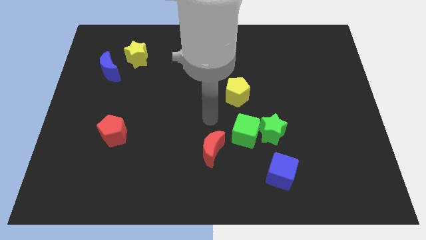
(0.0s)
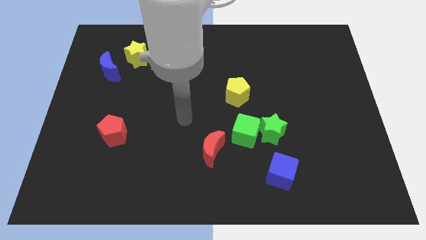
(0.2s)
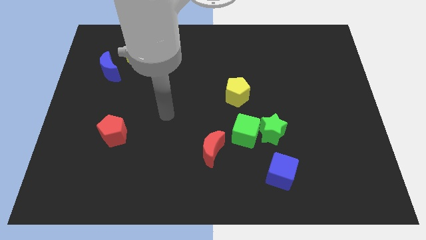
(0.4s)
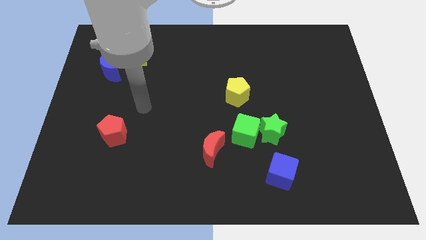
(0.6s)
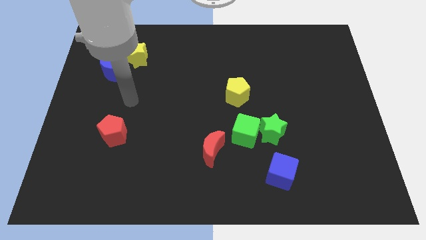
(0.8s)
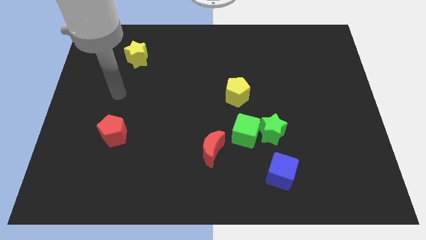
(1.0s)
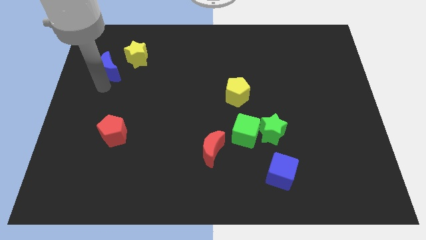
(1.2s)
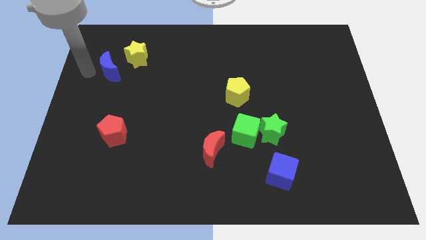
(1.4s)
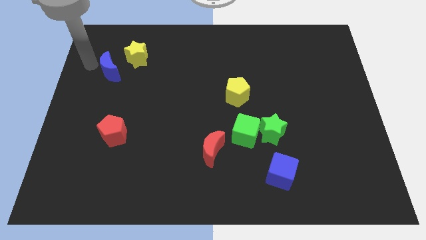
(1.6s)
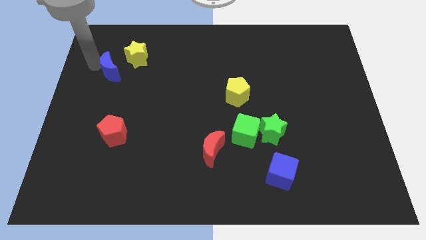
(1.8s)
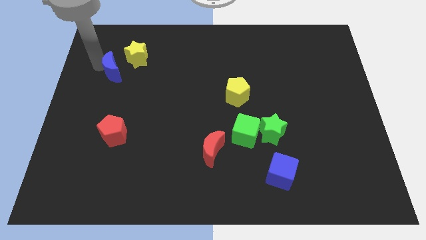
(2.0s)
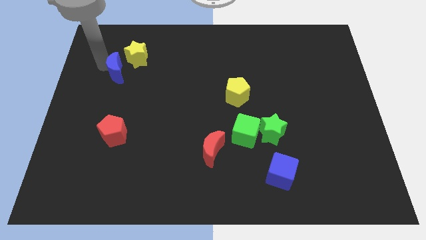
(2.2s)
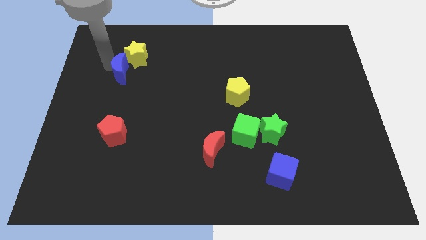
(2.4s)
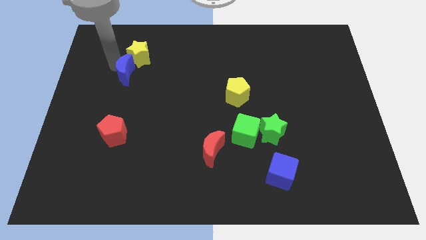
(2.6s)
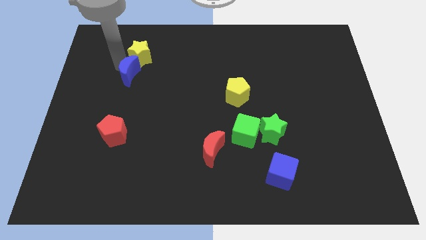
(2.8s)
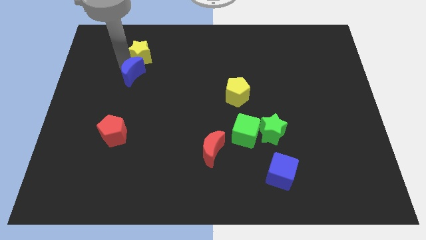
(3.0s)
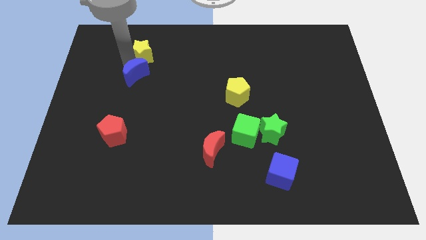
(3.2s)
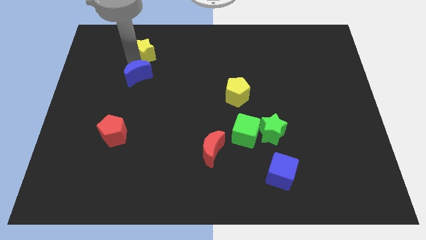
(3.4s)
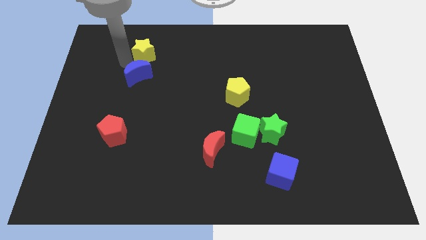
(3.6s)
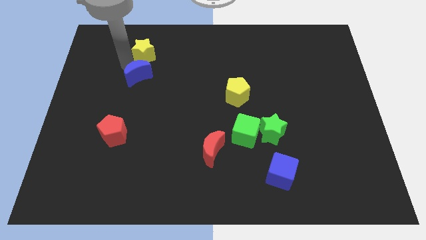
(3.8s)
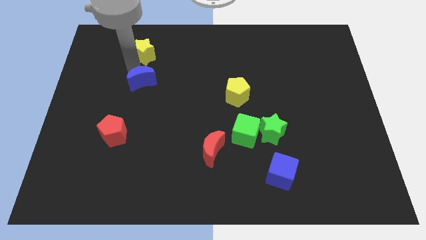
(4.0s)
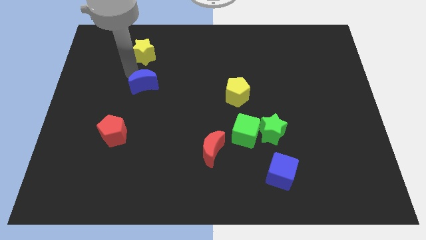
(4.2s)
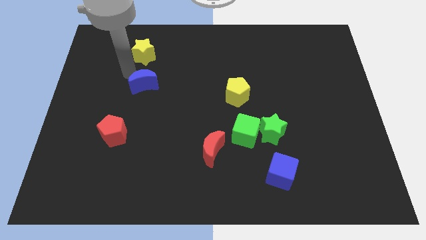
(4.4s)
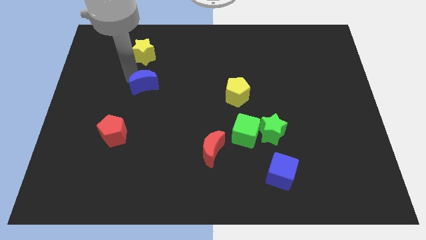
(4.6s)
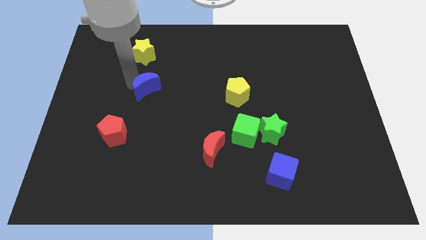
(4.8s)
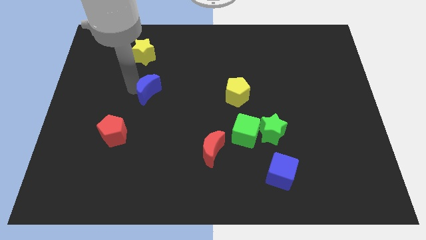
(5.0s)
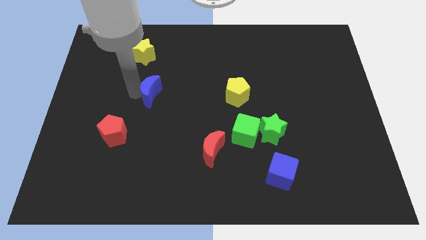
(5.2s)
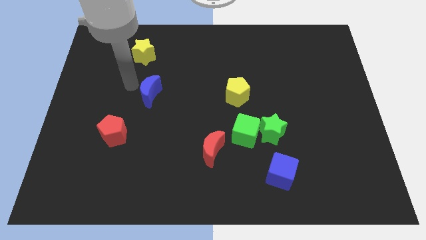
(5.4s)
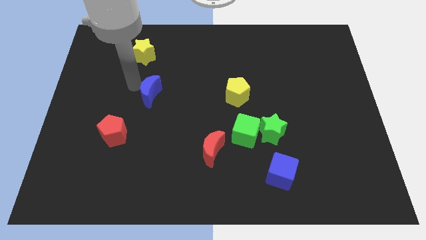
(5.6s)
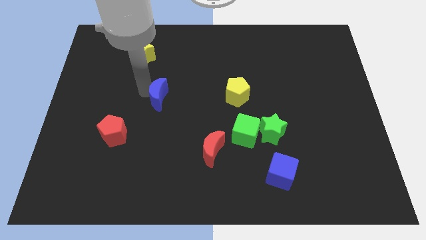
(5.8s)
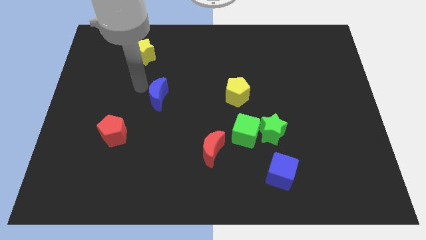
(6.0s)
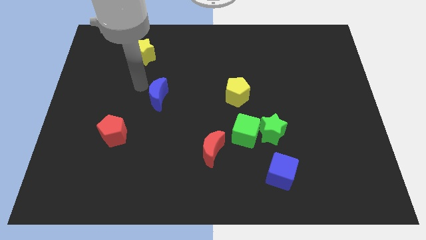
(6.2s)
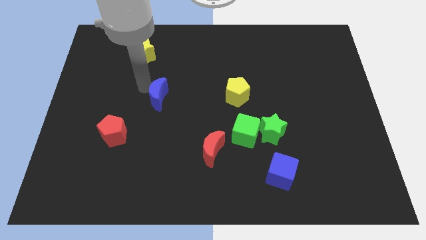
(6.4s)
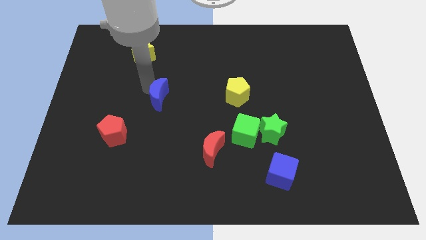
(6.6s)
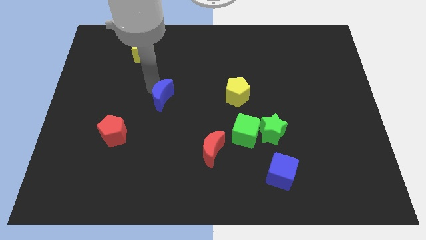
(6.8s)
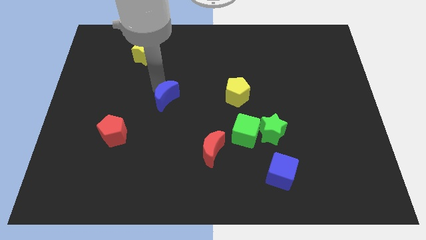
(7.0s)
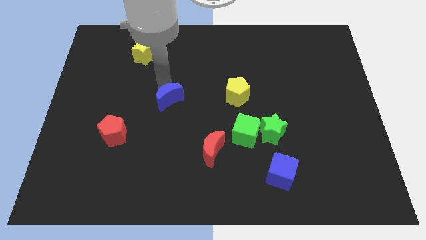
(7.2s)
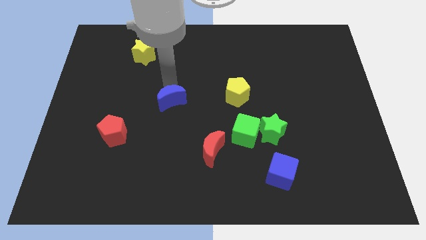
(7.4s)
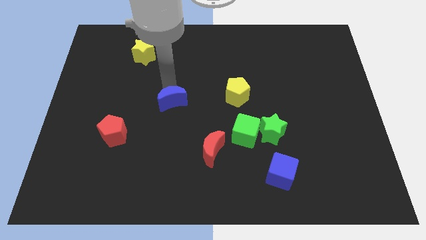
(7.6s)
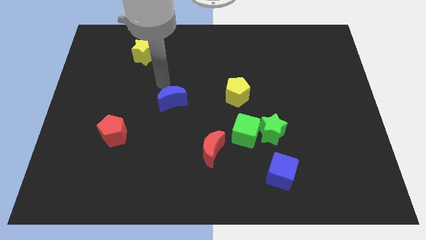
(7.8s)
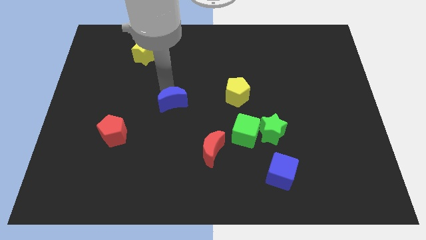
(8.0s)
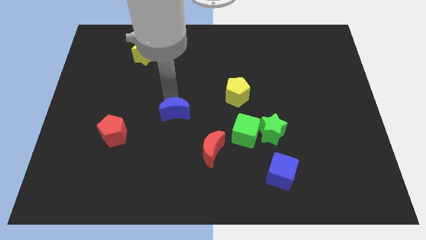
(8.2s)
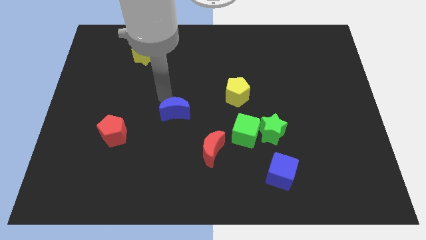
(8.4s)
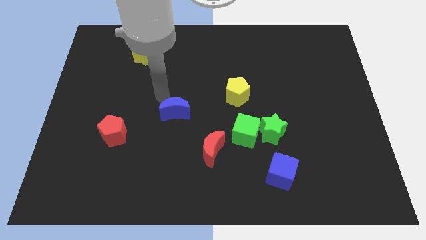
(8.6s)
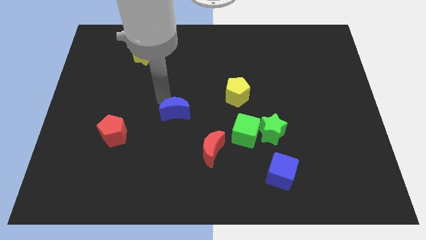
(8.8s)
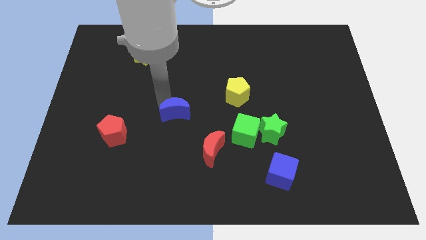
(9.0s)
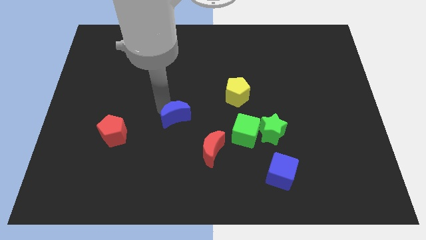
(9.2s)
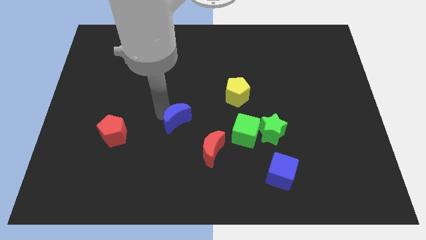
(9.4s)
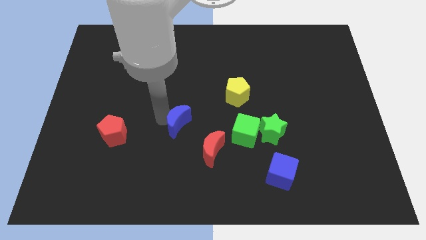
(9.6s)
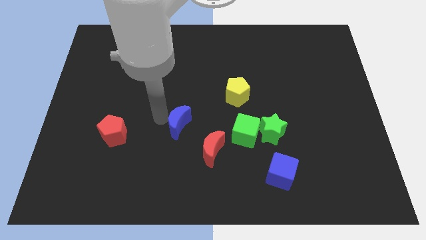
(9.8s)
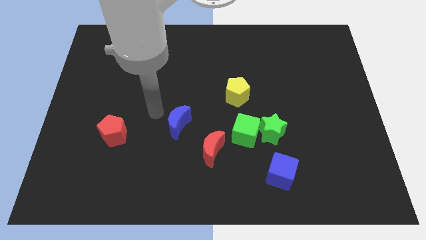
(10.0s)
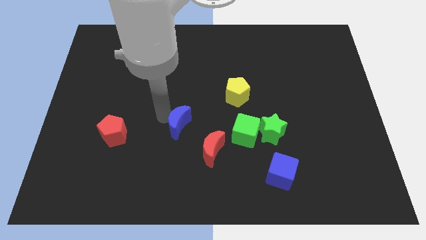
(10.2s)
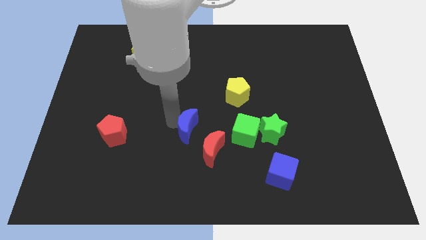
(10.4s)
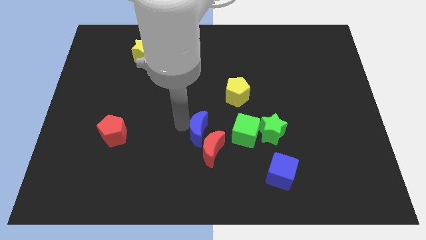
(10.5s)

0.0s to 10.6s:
move the blue moon towards the red moon

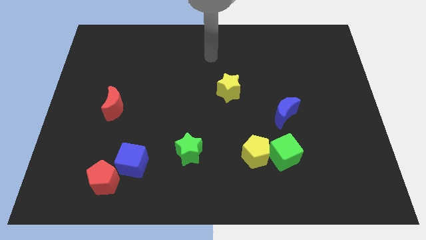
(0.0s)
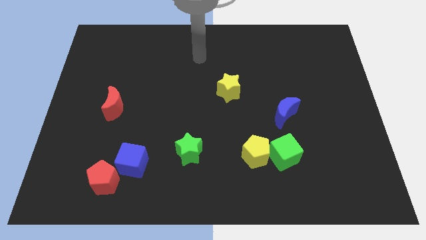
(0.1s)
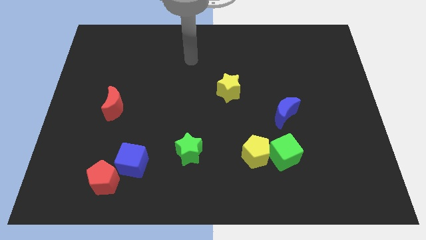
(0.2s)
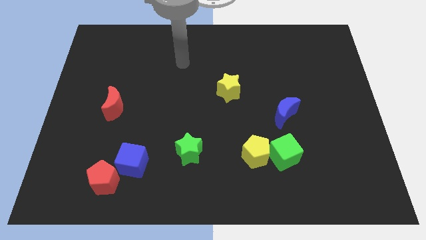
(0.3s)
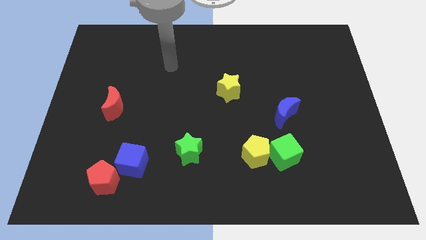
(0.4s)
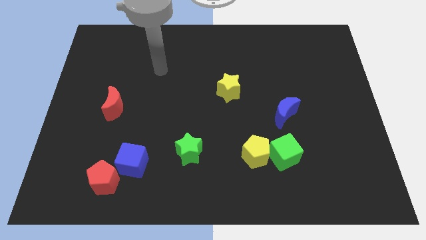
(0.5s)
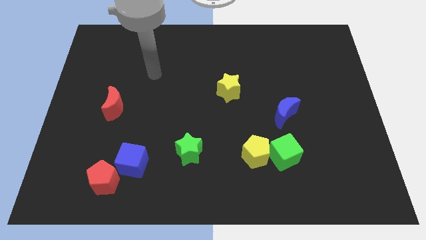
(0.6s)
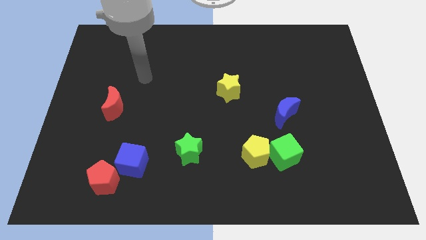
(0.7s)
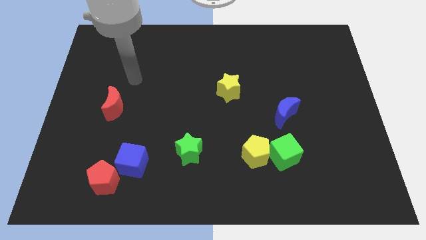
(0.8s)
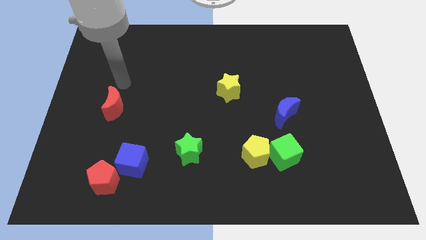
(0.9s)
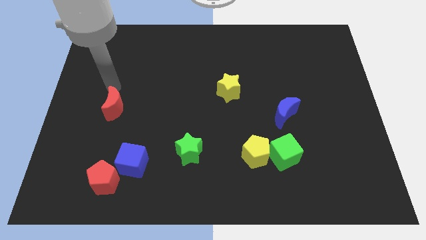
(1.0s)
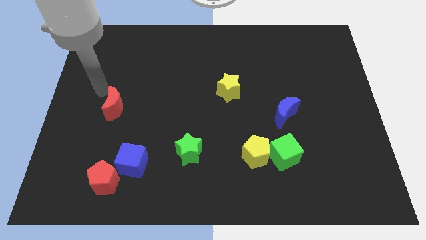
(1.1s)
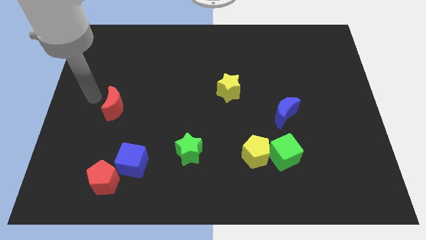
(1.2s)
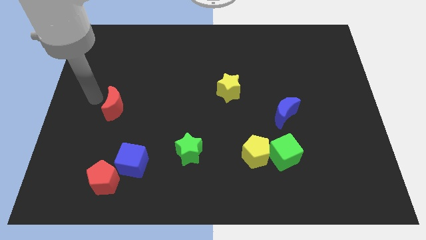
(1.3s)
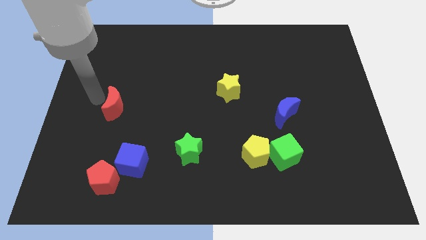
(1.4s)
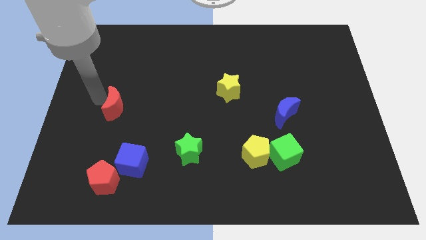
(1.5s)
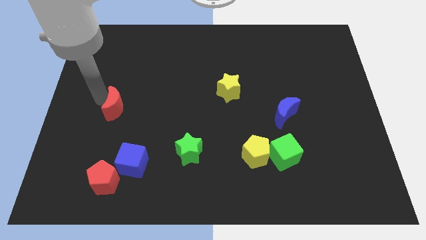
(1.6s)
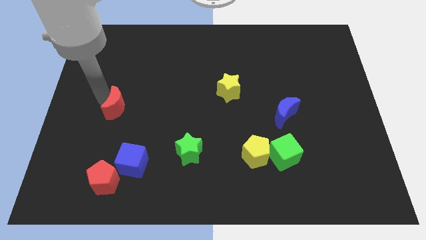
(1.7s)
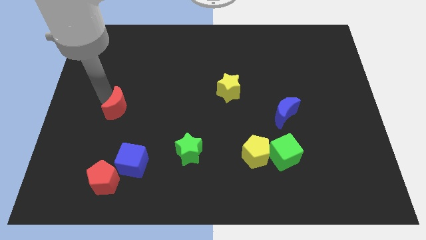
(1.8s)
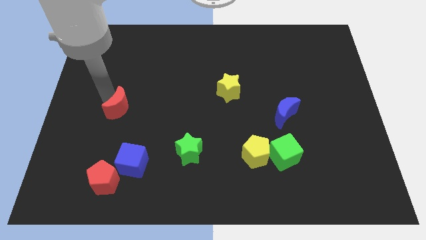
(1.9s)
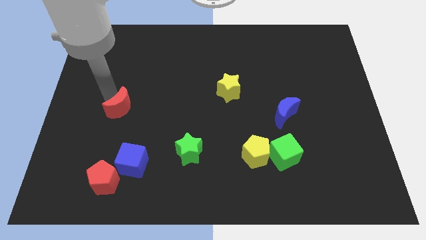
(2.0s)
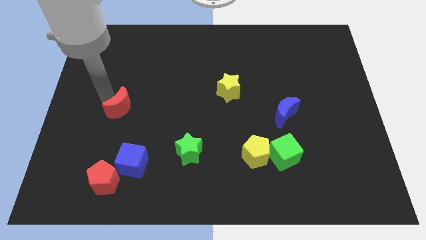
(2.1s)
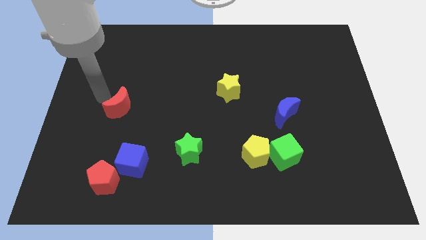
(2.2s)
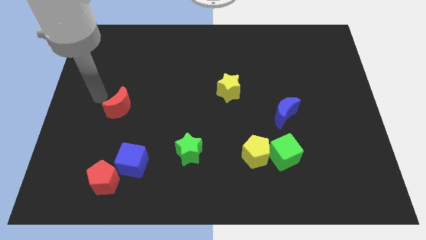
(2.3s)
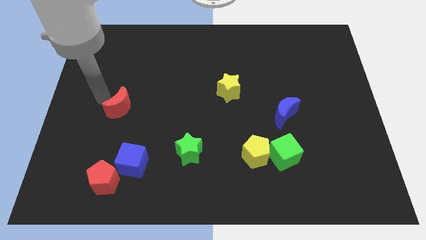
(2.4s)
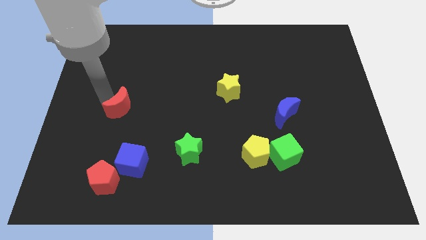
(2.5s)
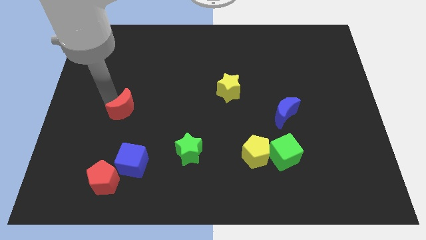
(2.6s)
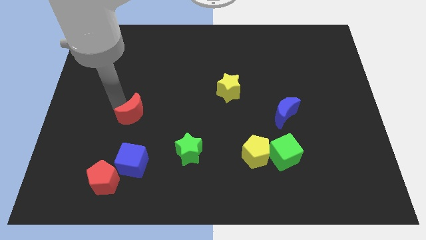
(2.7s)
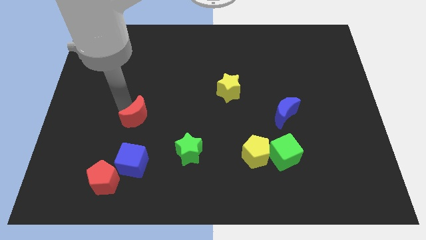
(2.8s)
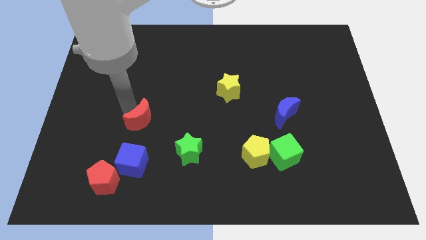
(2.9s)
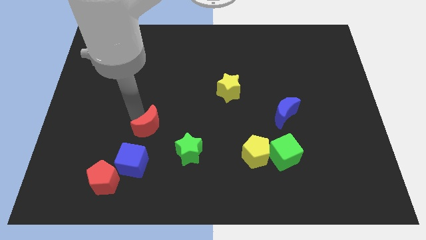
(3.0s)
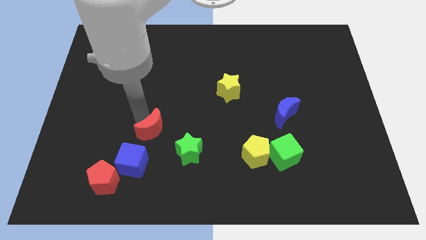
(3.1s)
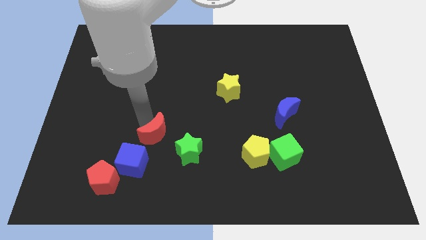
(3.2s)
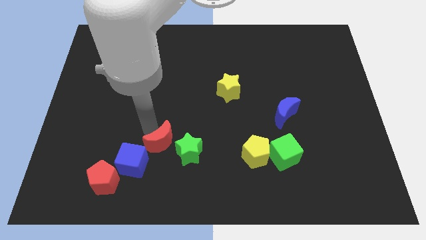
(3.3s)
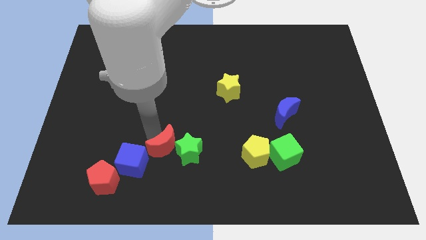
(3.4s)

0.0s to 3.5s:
slide the red moon towards the green star
